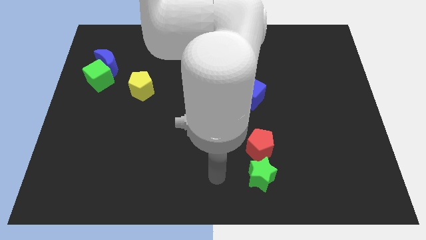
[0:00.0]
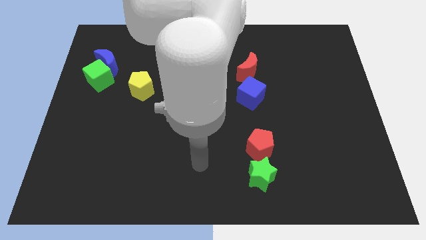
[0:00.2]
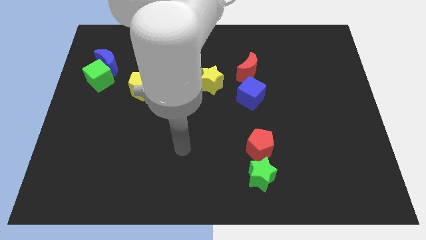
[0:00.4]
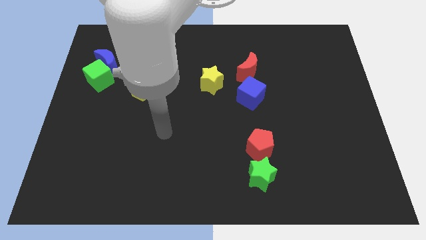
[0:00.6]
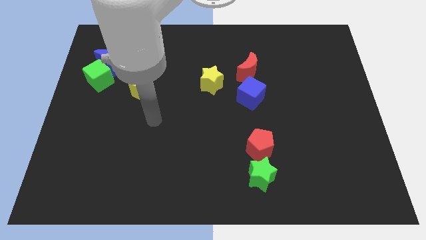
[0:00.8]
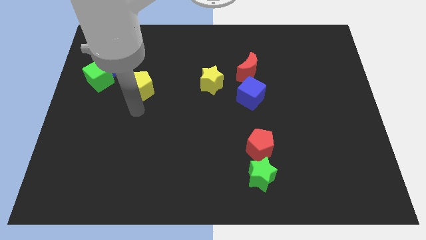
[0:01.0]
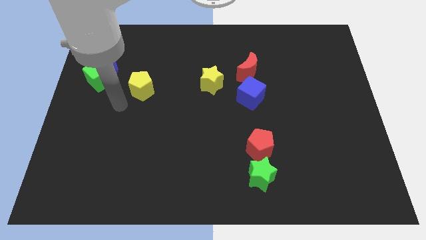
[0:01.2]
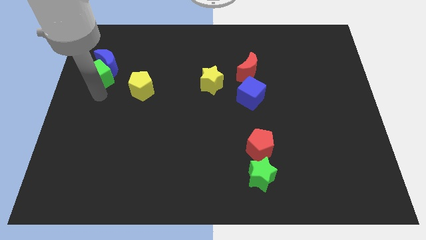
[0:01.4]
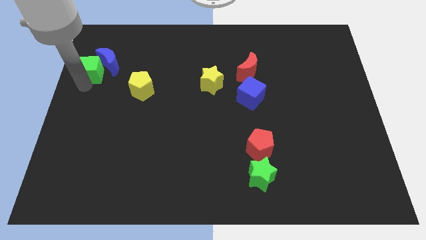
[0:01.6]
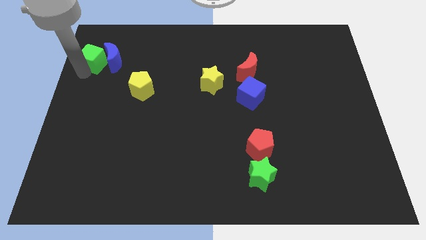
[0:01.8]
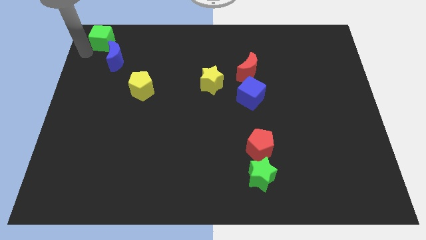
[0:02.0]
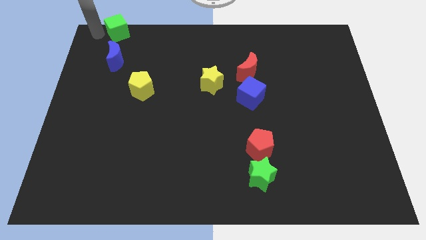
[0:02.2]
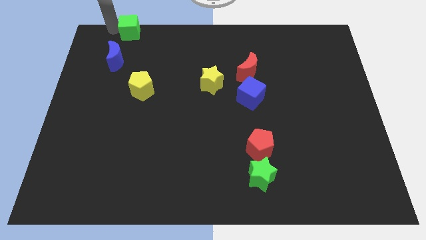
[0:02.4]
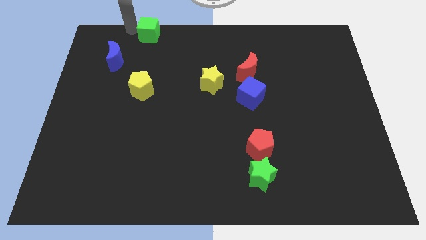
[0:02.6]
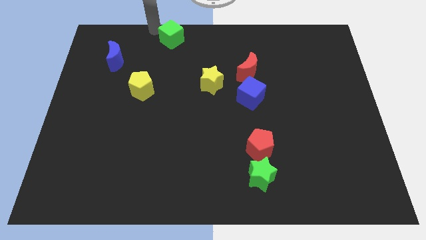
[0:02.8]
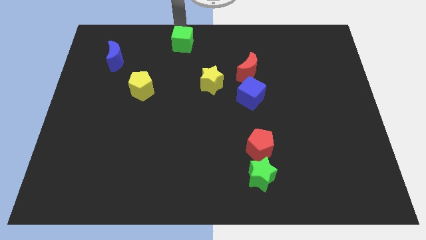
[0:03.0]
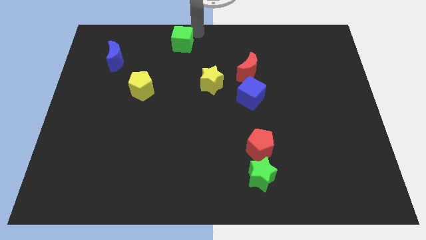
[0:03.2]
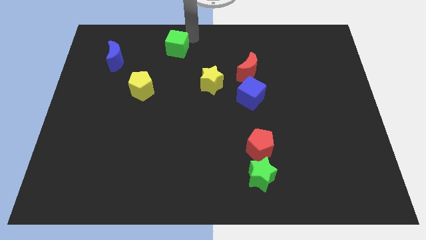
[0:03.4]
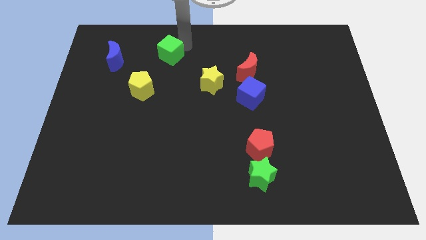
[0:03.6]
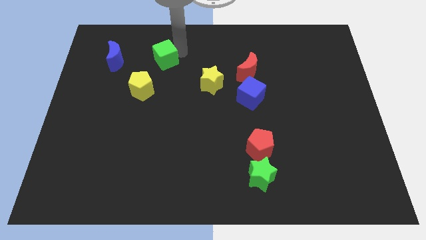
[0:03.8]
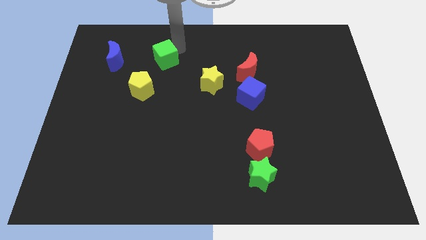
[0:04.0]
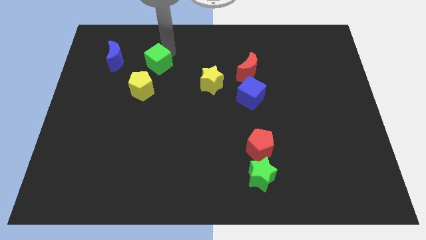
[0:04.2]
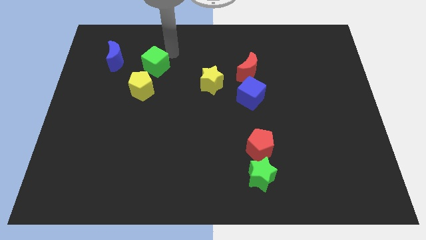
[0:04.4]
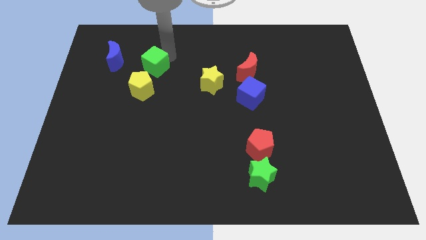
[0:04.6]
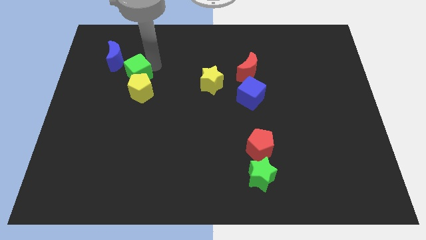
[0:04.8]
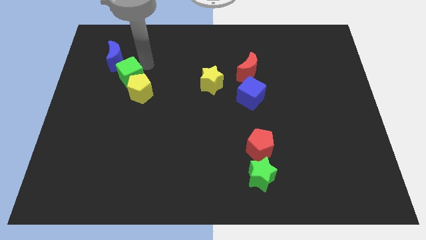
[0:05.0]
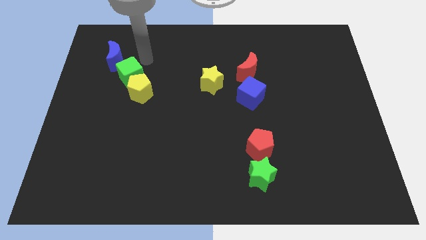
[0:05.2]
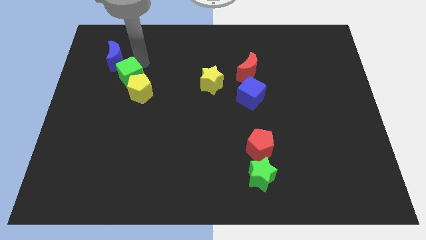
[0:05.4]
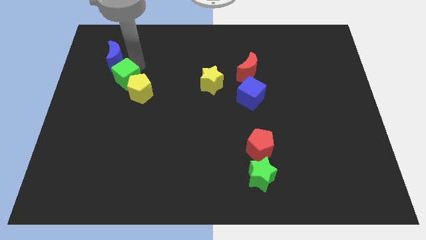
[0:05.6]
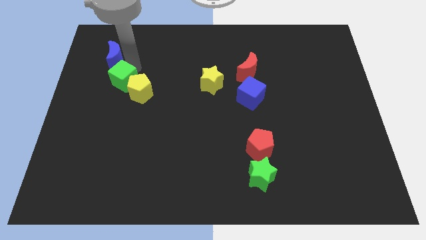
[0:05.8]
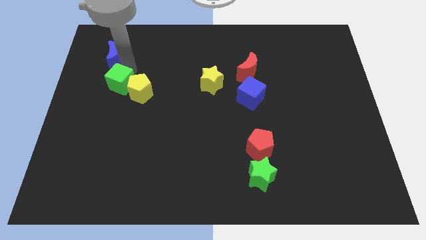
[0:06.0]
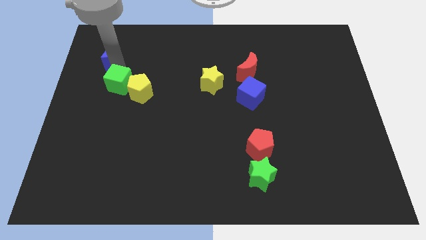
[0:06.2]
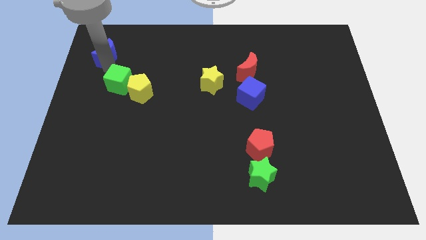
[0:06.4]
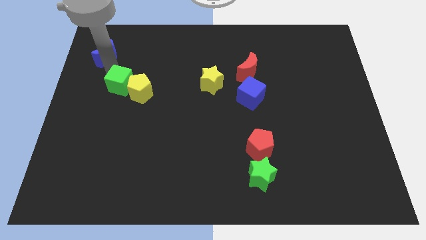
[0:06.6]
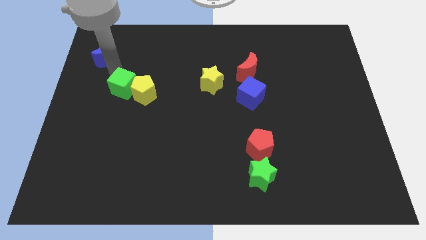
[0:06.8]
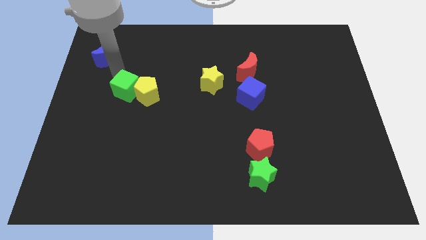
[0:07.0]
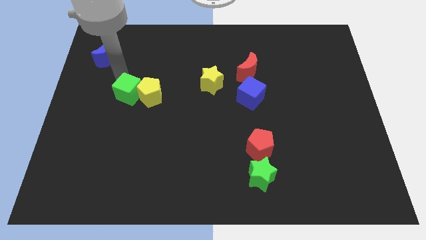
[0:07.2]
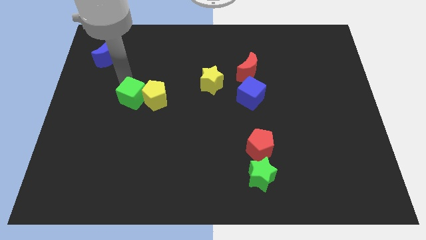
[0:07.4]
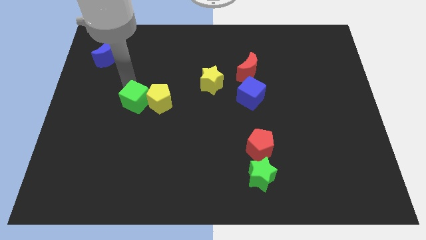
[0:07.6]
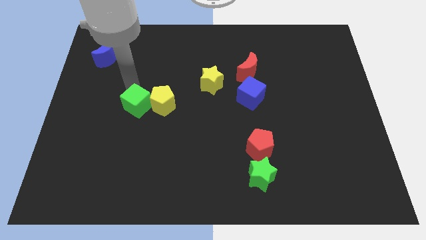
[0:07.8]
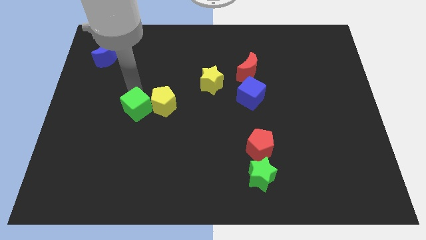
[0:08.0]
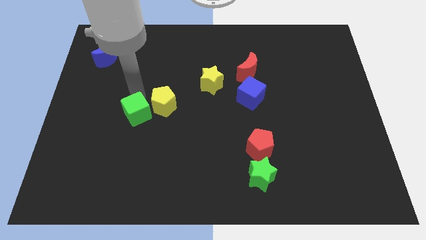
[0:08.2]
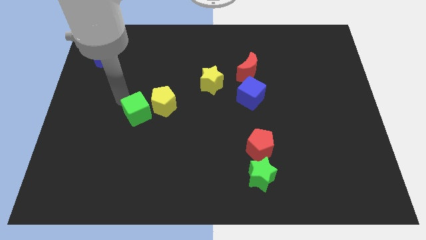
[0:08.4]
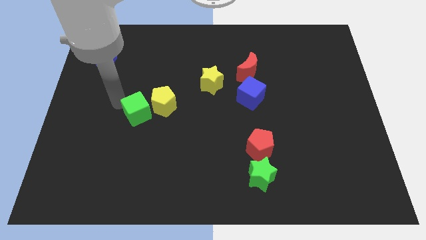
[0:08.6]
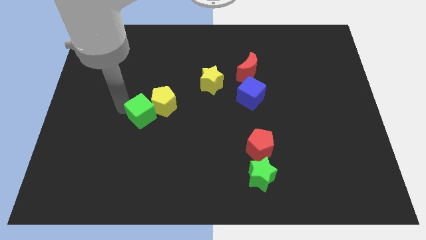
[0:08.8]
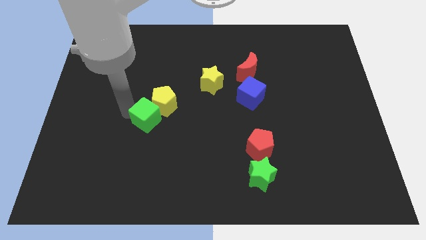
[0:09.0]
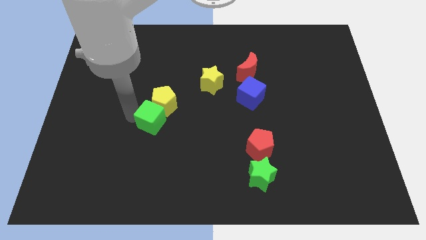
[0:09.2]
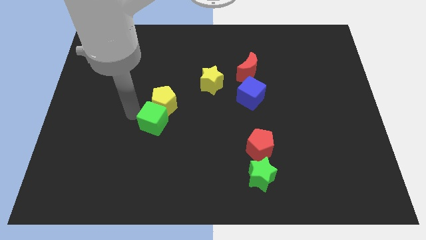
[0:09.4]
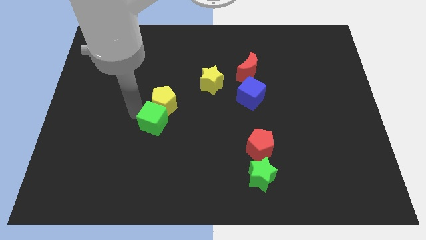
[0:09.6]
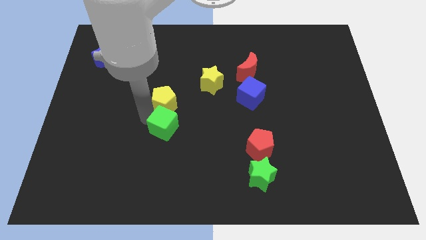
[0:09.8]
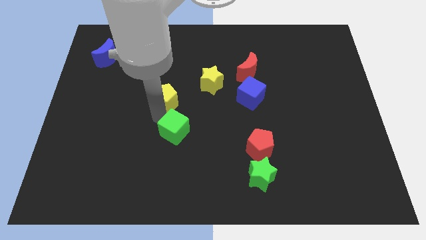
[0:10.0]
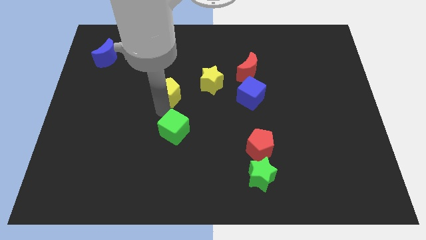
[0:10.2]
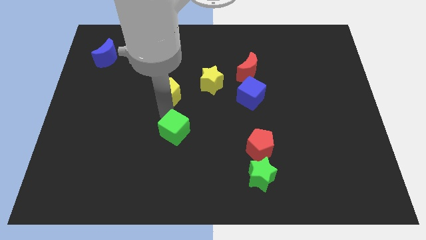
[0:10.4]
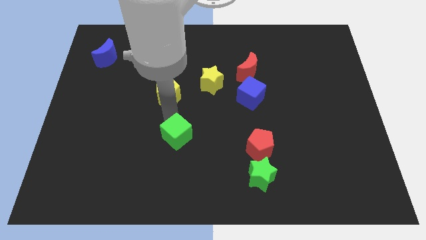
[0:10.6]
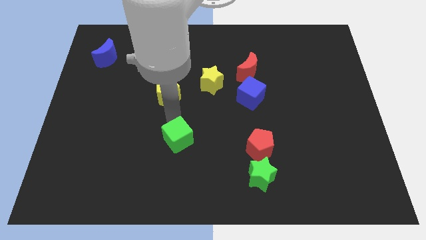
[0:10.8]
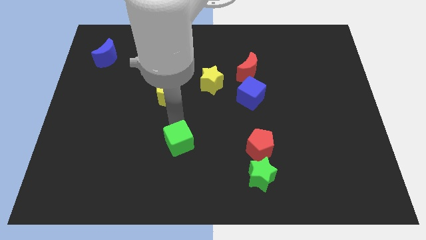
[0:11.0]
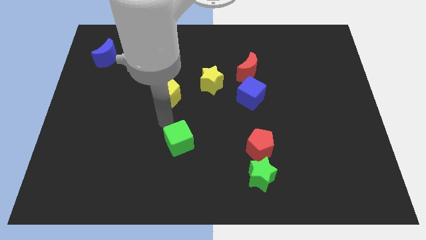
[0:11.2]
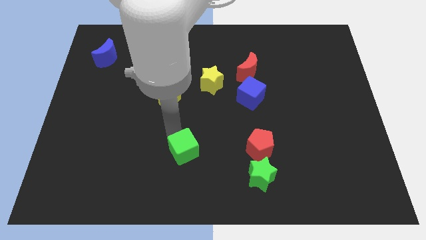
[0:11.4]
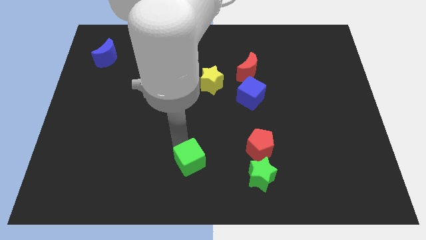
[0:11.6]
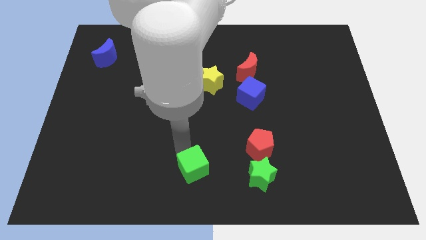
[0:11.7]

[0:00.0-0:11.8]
put the green cube left of the green star

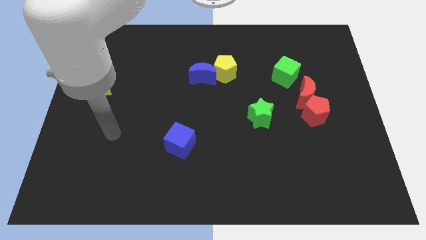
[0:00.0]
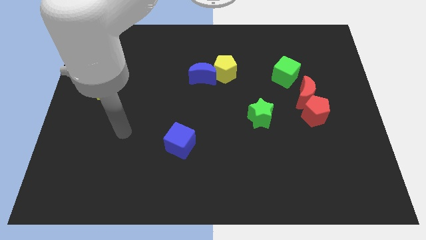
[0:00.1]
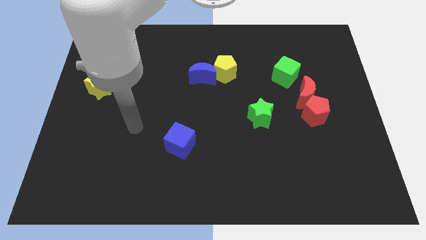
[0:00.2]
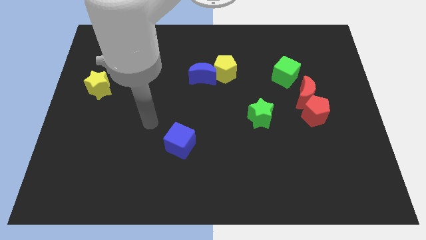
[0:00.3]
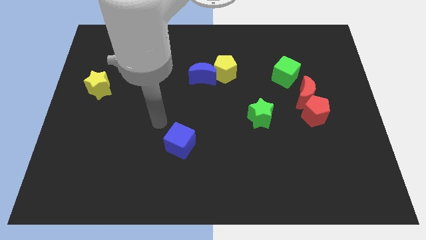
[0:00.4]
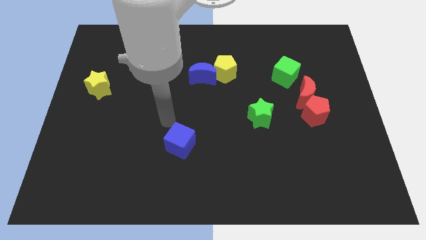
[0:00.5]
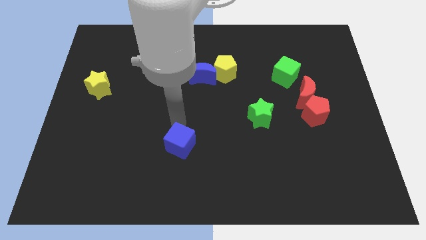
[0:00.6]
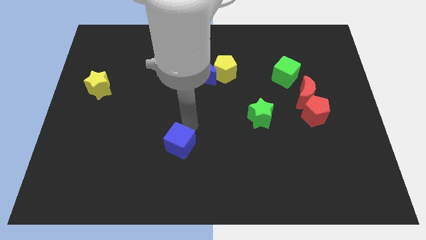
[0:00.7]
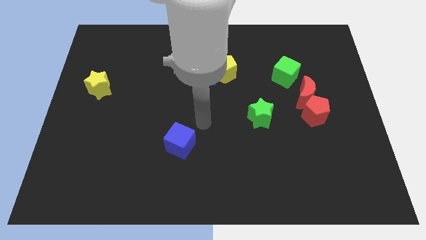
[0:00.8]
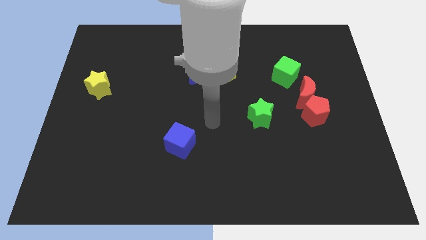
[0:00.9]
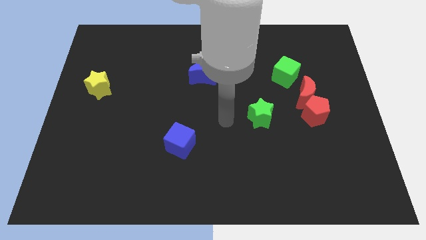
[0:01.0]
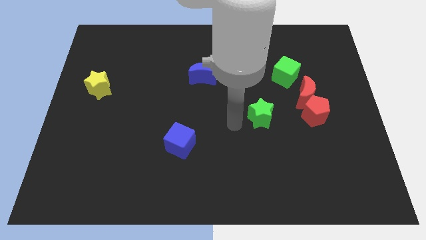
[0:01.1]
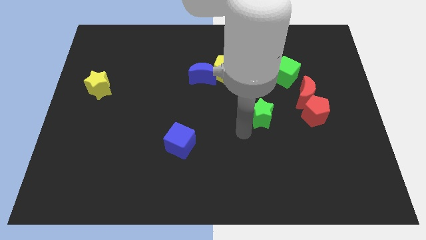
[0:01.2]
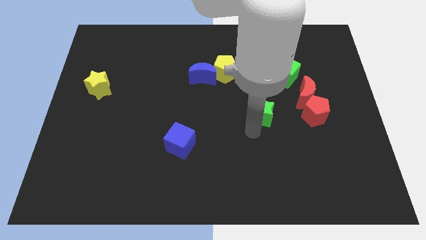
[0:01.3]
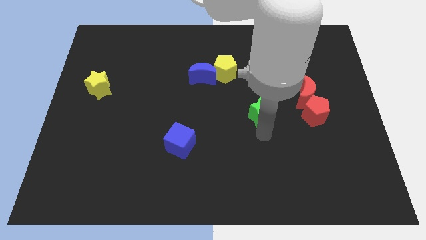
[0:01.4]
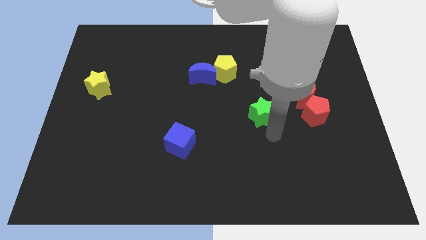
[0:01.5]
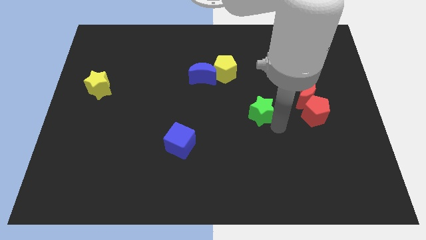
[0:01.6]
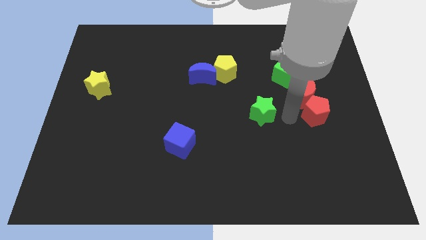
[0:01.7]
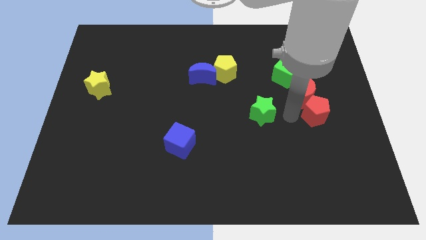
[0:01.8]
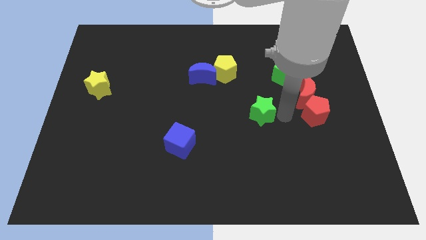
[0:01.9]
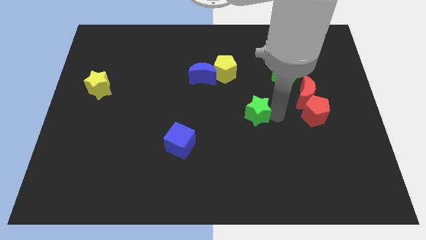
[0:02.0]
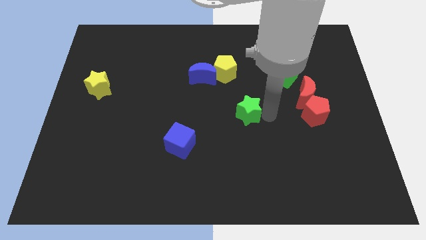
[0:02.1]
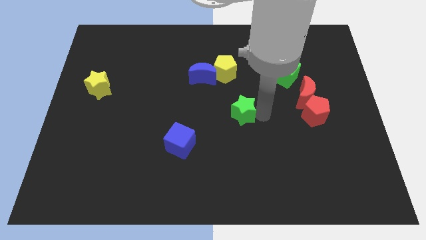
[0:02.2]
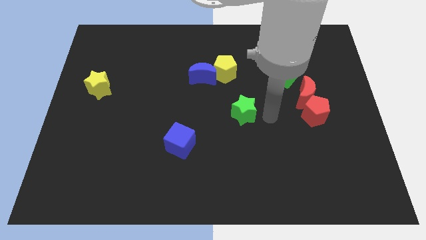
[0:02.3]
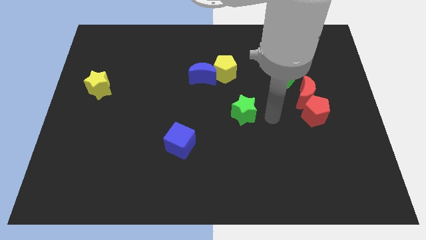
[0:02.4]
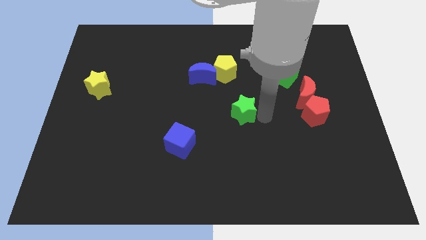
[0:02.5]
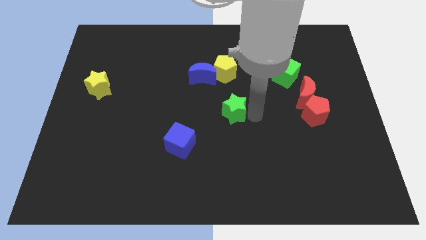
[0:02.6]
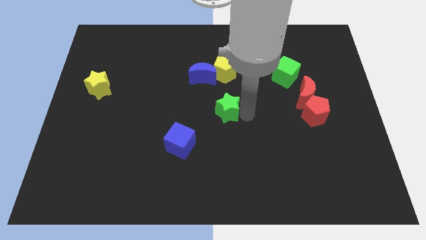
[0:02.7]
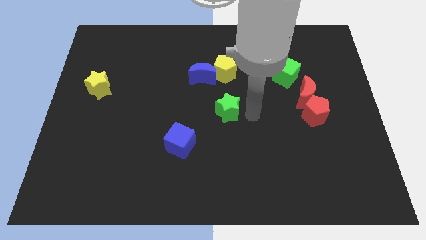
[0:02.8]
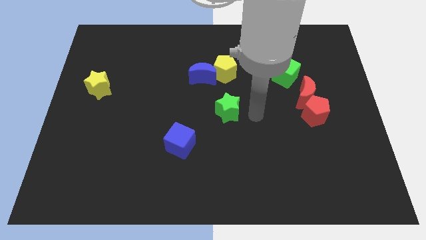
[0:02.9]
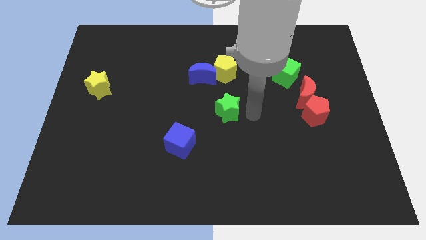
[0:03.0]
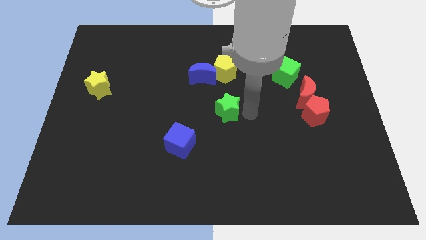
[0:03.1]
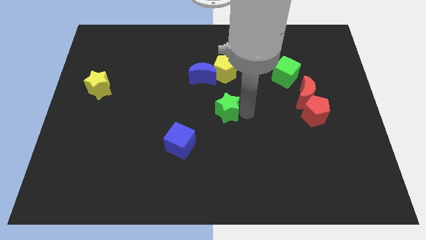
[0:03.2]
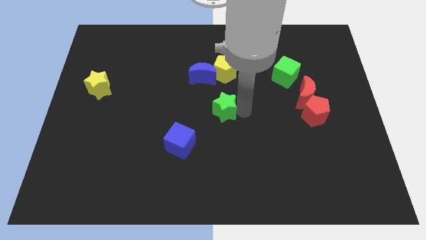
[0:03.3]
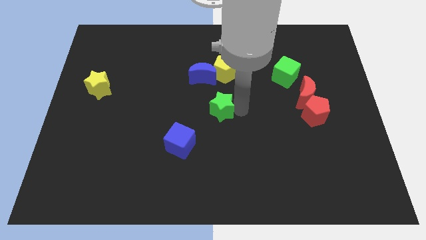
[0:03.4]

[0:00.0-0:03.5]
put the green star below the blue moon
